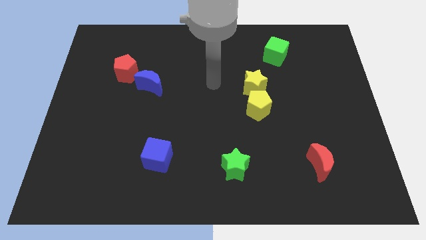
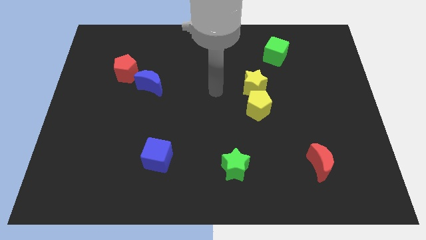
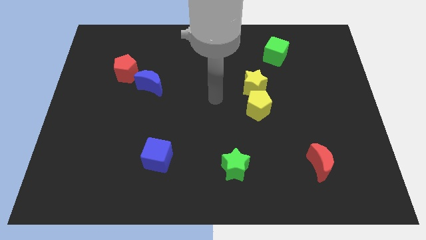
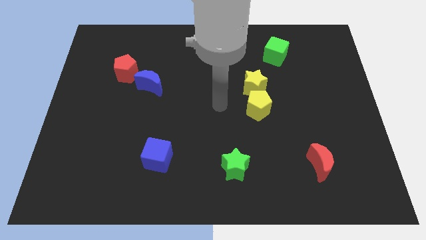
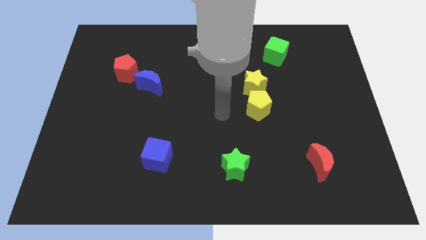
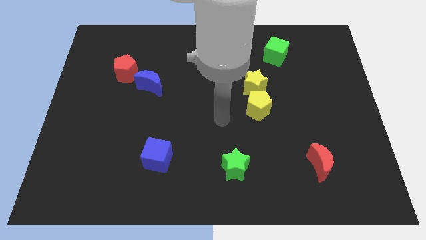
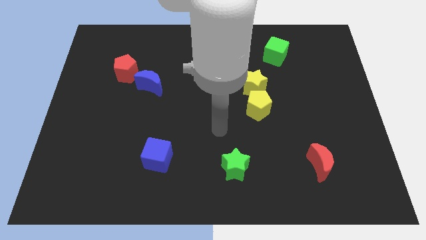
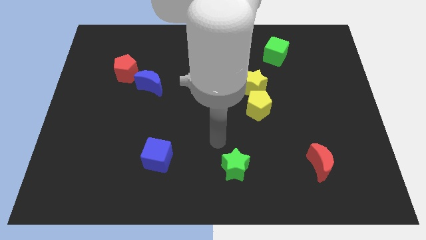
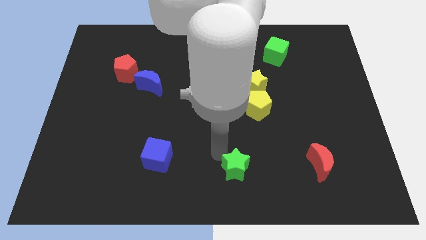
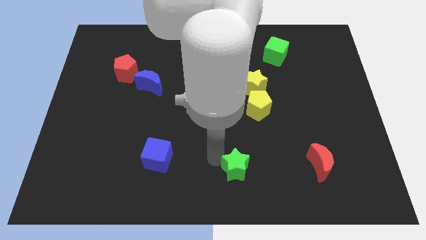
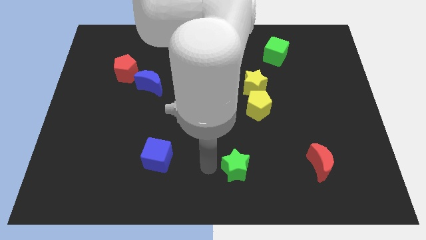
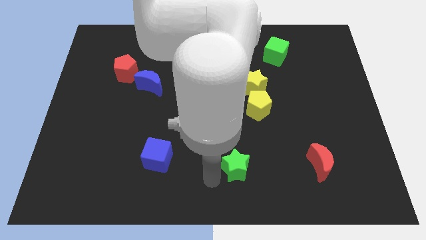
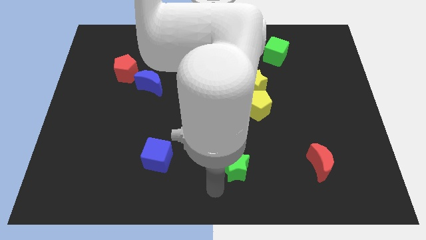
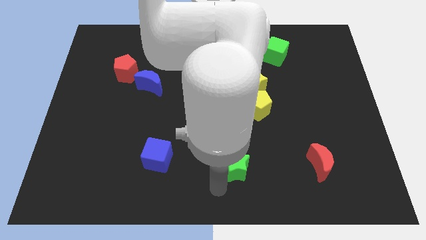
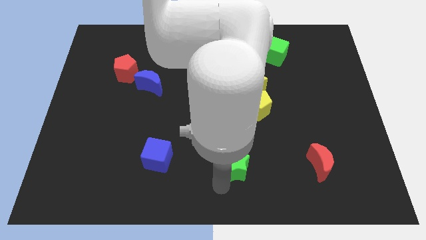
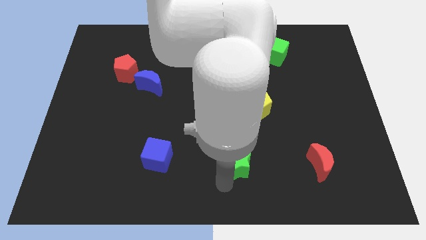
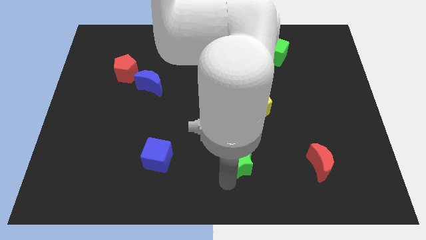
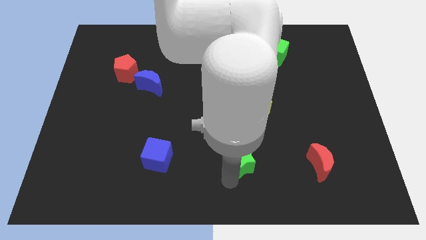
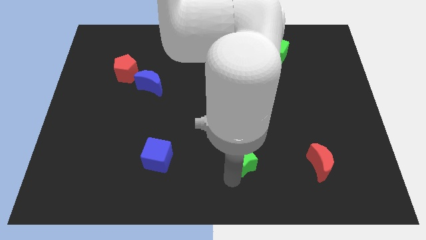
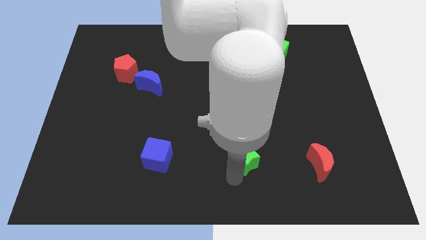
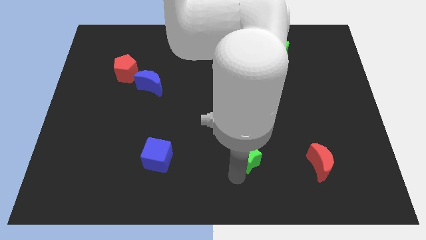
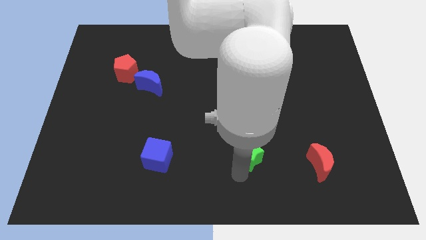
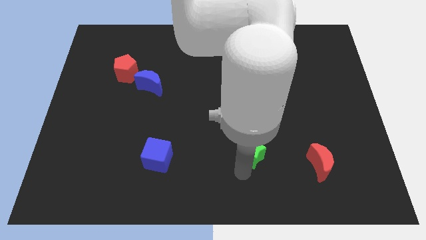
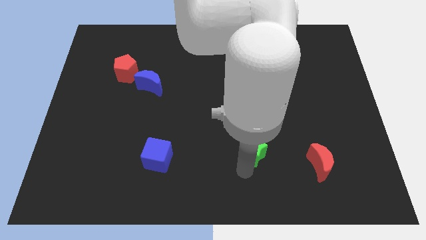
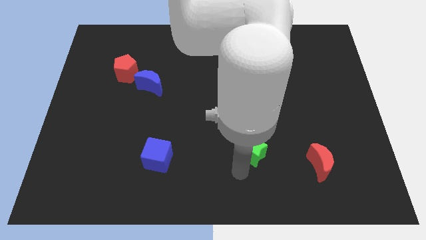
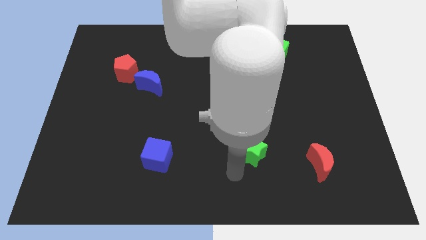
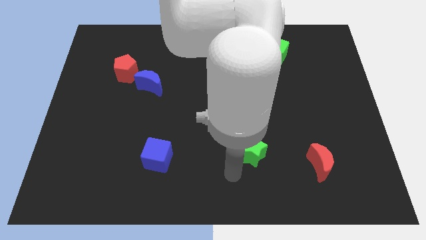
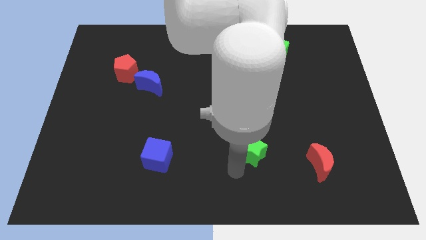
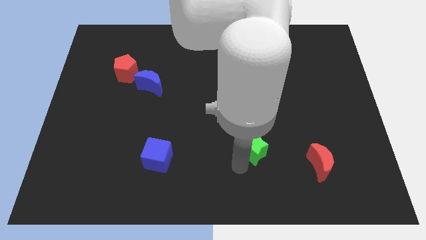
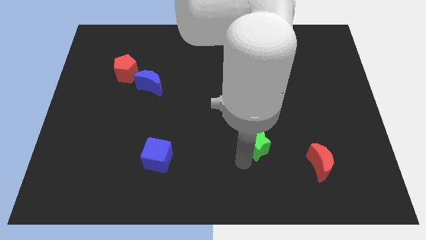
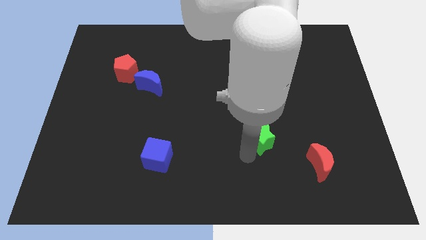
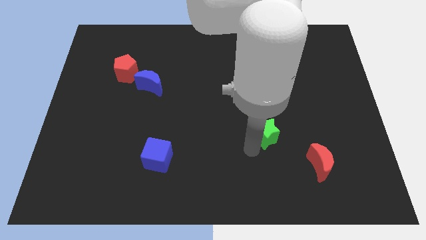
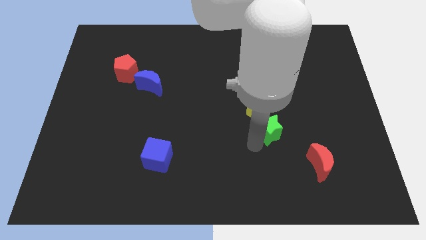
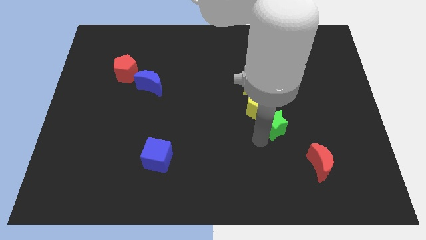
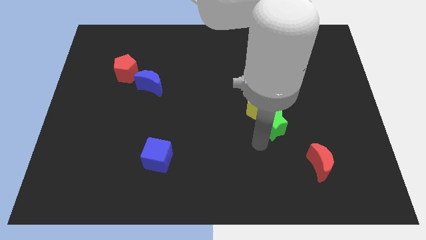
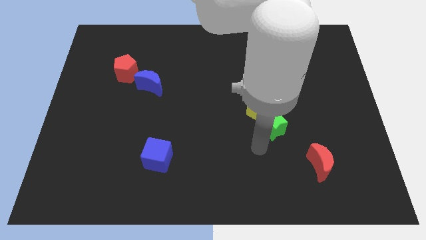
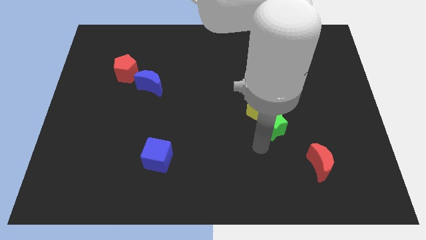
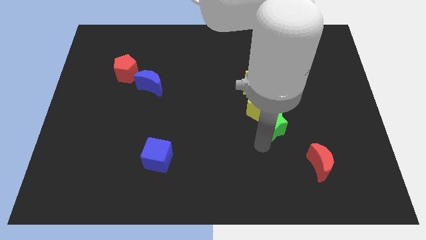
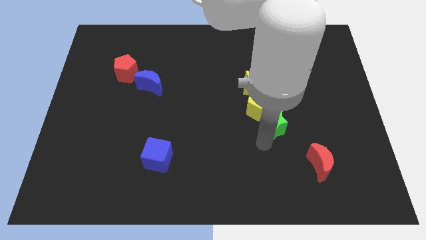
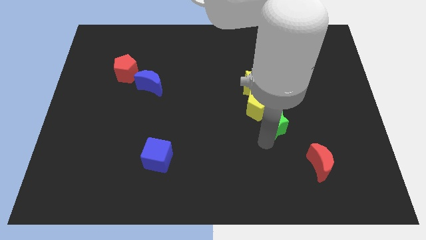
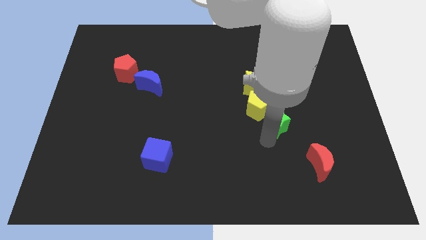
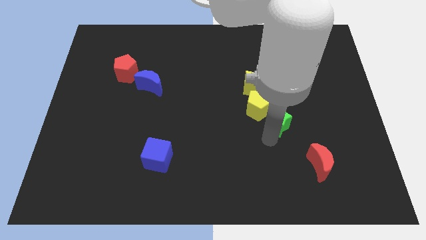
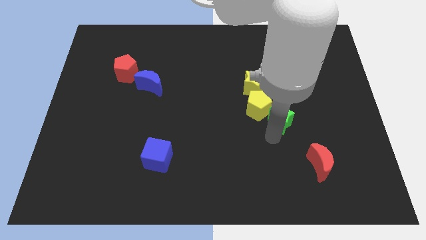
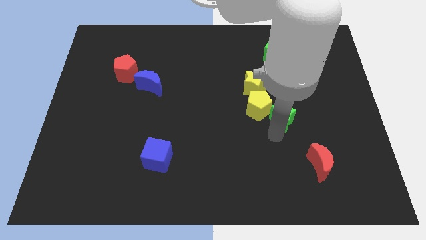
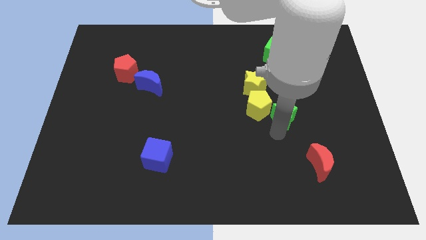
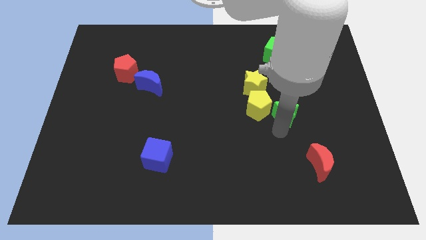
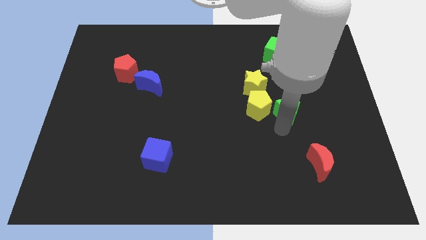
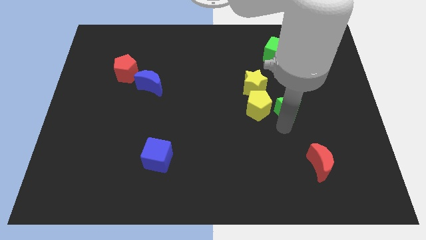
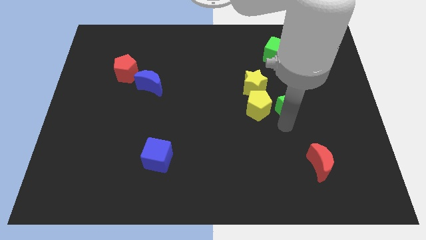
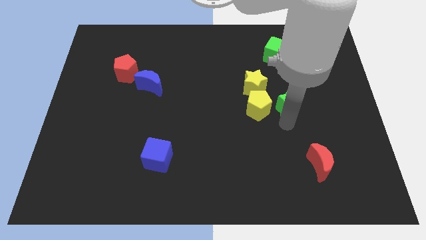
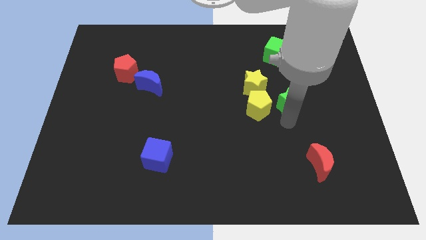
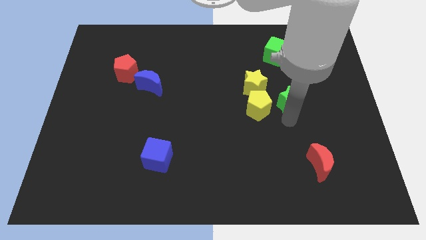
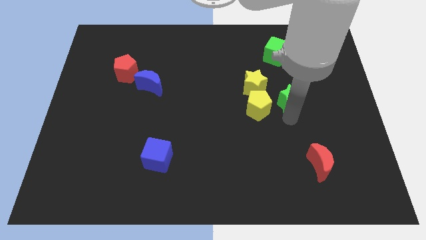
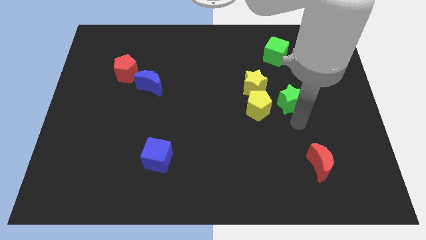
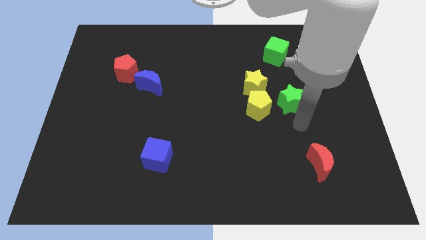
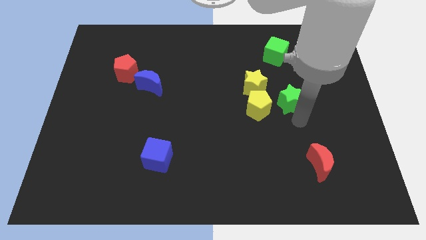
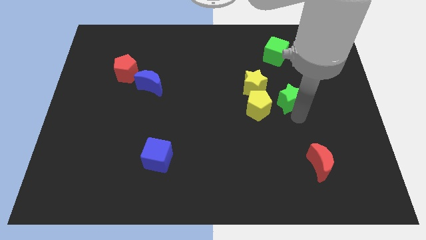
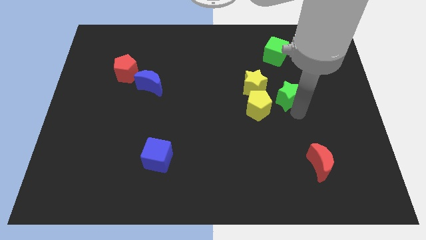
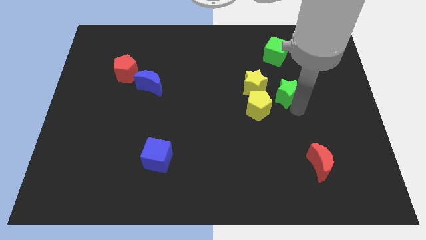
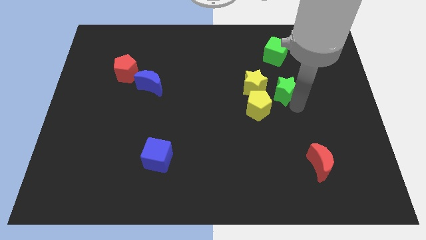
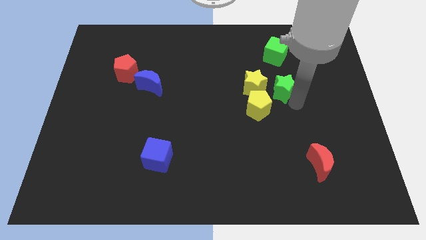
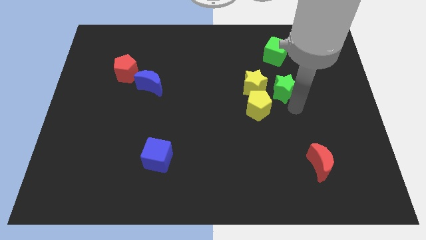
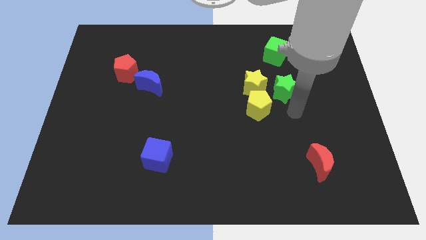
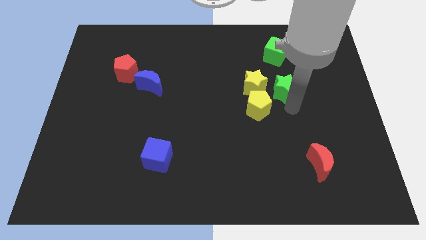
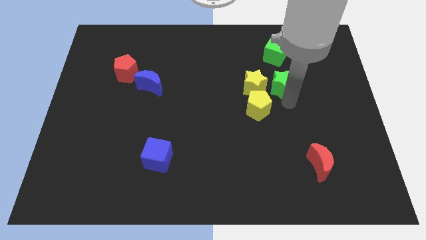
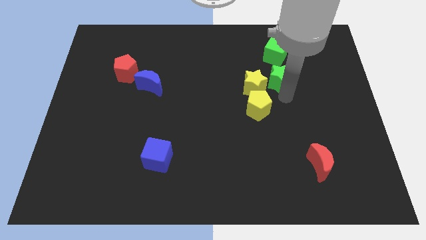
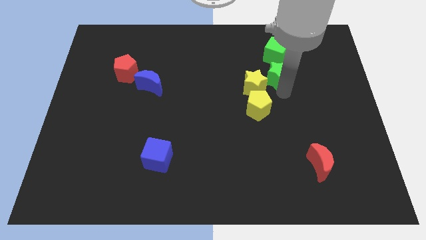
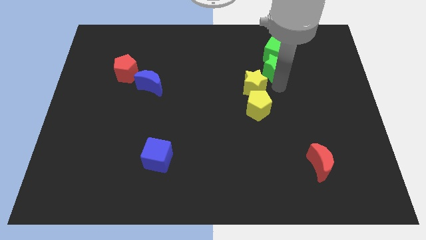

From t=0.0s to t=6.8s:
slide the green star next to the green cube

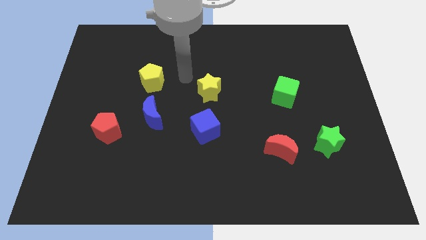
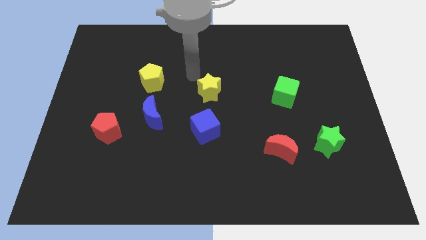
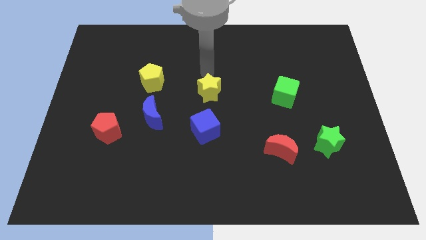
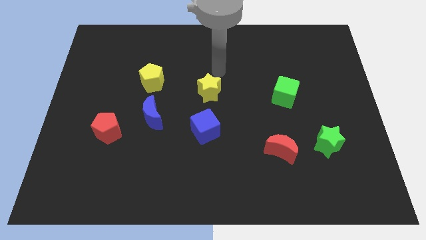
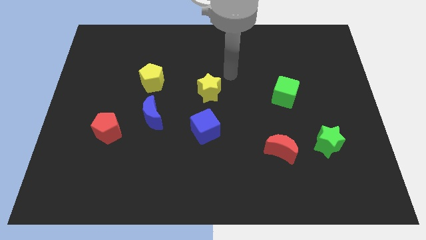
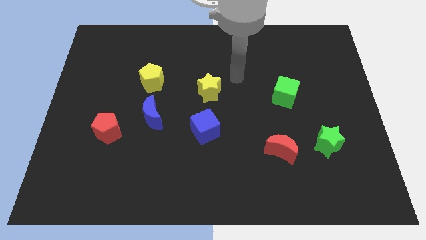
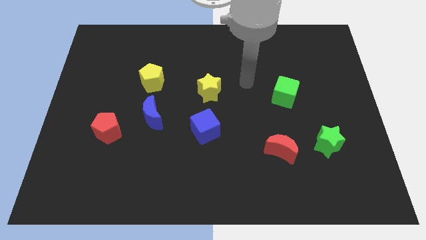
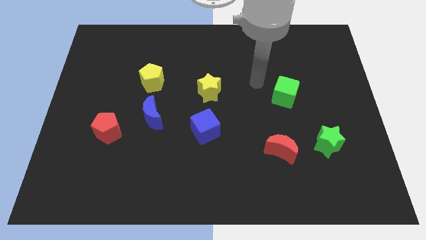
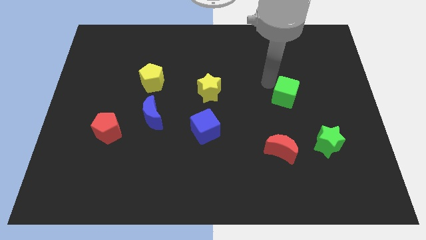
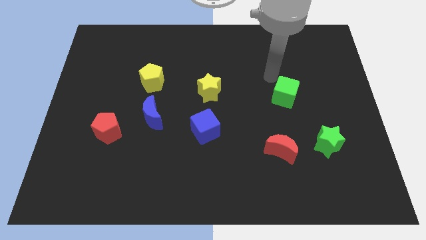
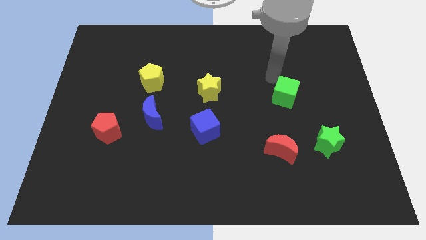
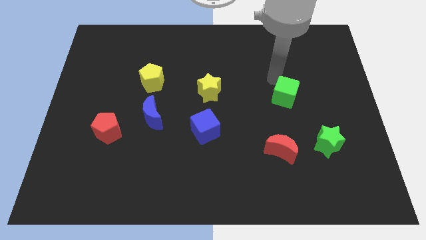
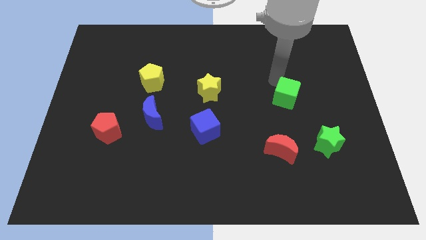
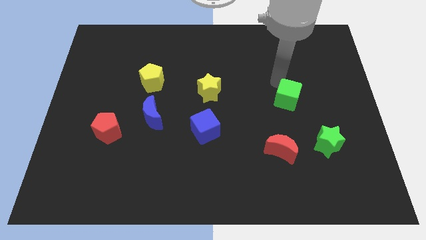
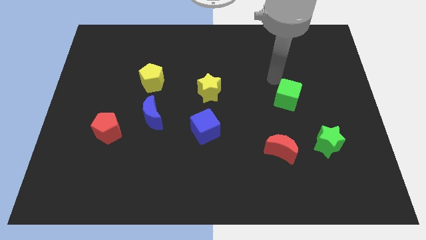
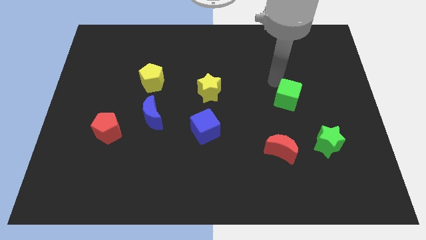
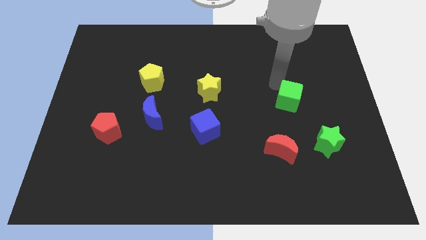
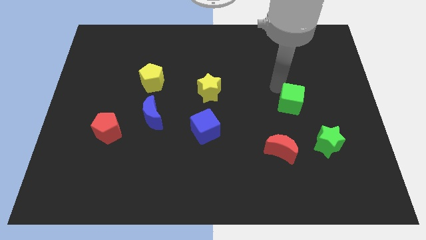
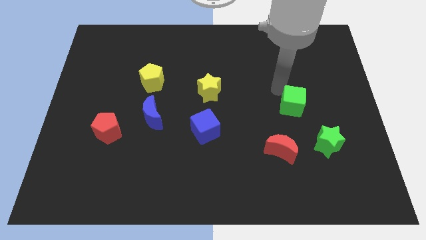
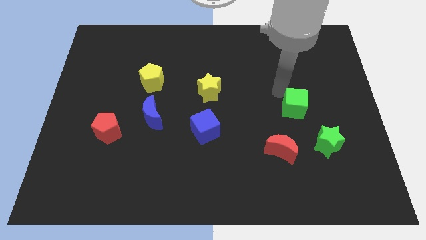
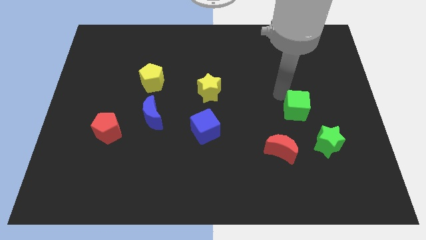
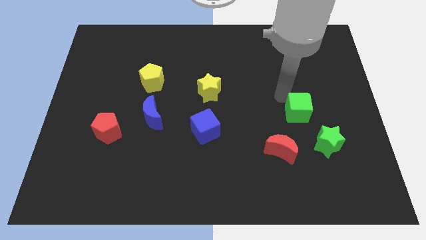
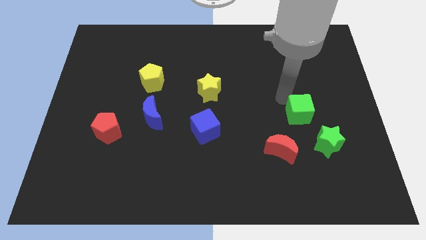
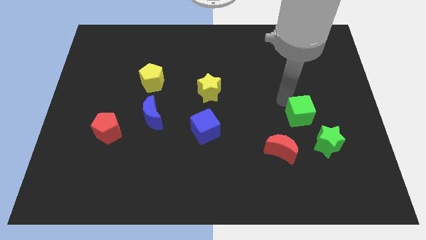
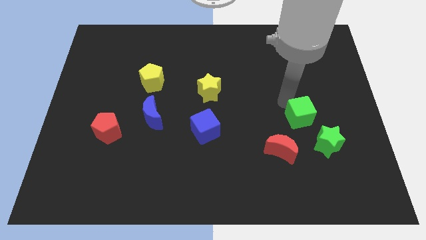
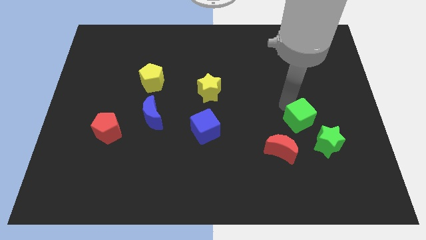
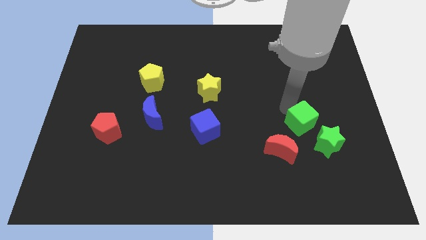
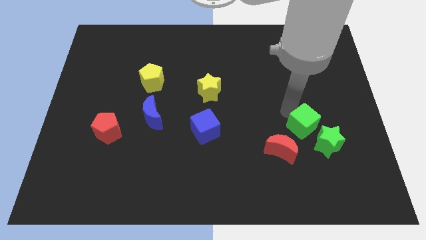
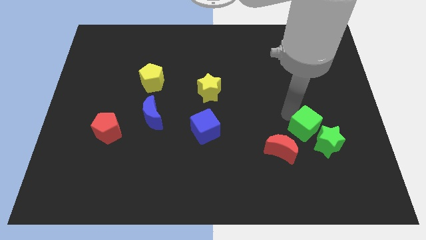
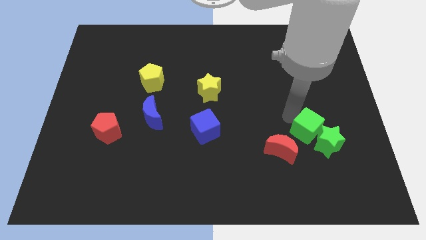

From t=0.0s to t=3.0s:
put the green cube close to the green star
